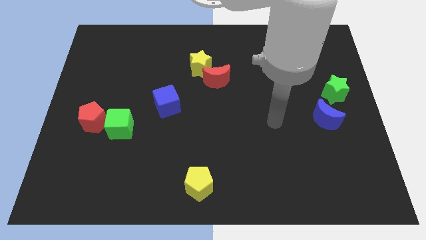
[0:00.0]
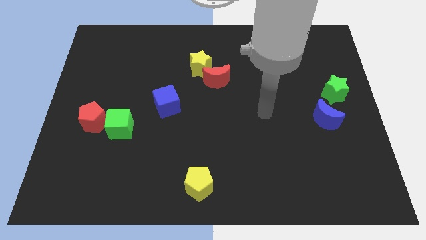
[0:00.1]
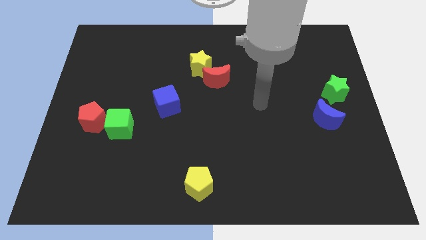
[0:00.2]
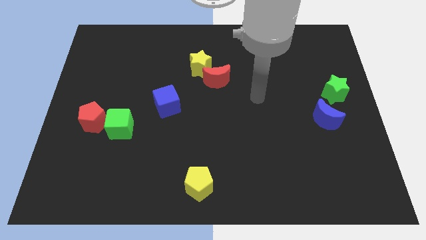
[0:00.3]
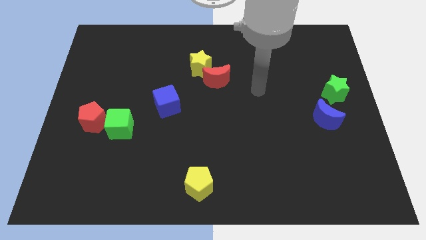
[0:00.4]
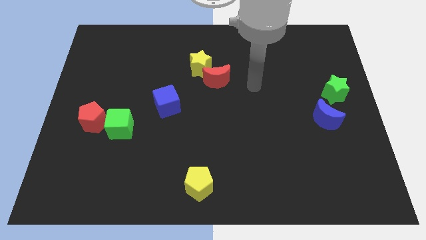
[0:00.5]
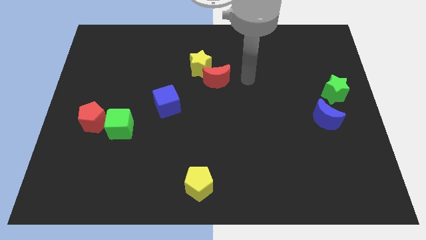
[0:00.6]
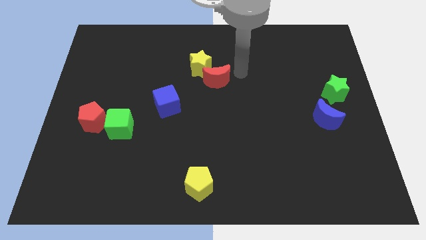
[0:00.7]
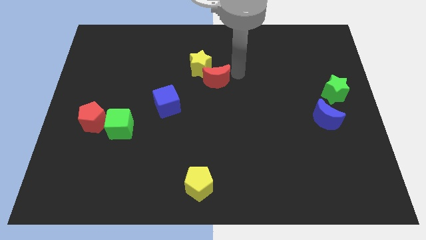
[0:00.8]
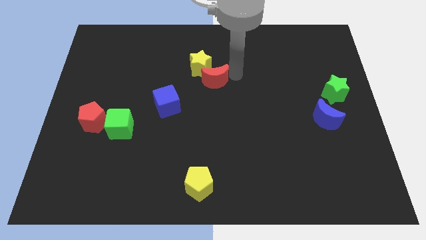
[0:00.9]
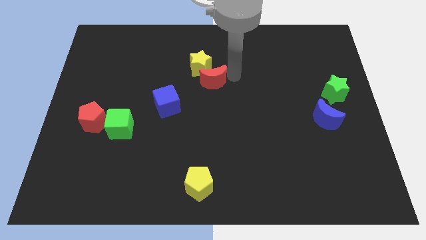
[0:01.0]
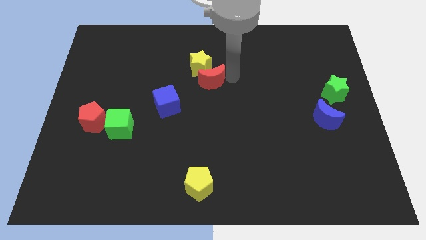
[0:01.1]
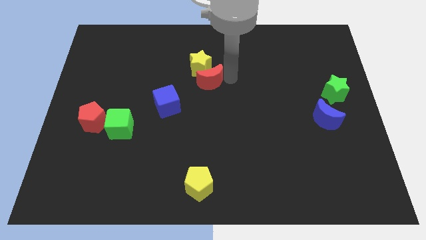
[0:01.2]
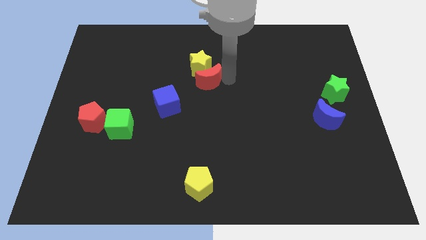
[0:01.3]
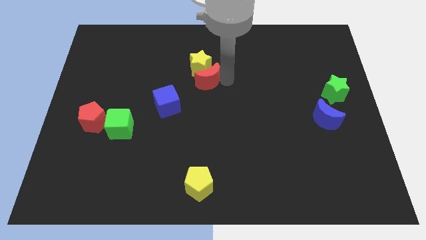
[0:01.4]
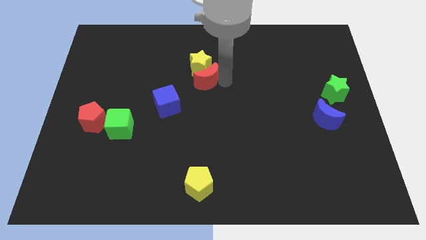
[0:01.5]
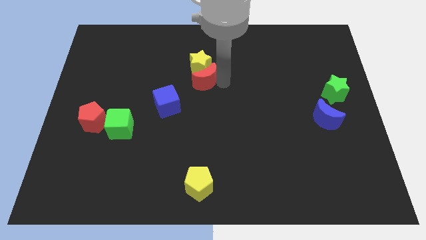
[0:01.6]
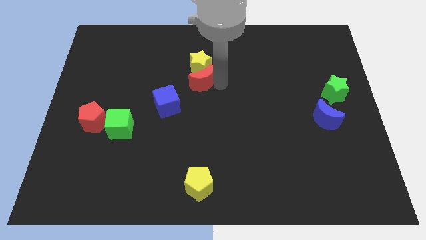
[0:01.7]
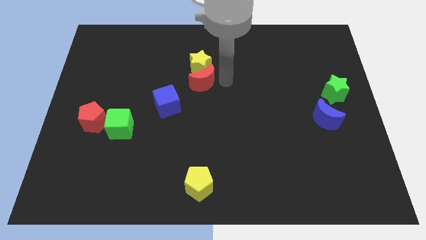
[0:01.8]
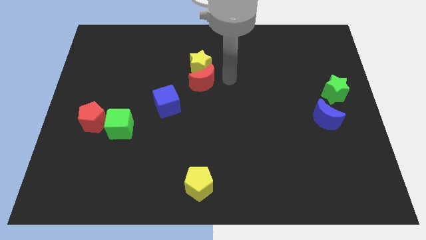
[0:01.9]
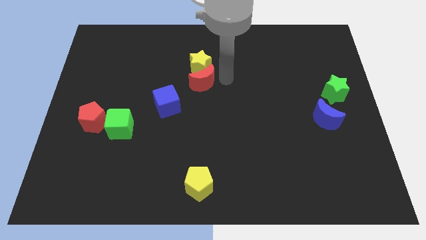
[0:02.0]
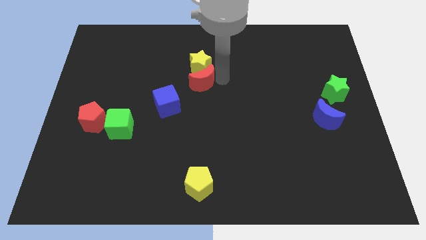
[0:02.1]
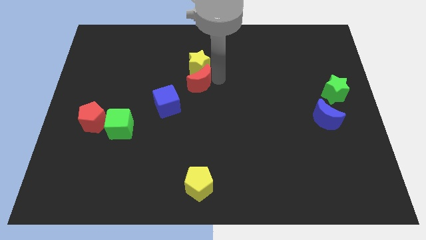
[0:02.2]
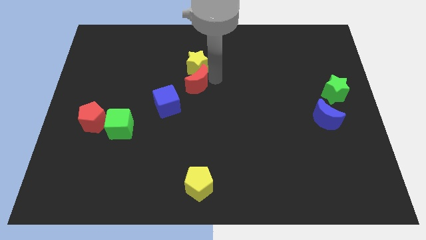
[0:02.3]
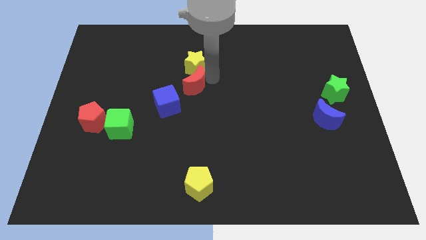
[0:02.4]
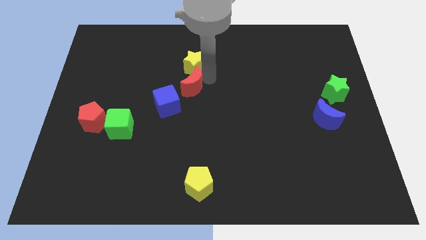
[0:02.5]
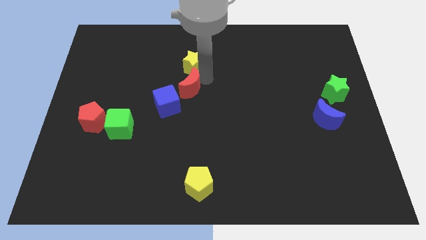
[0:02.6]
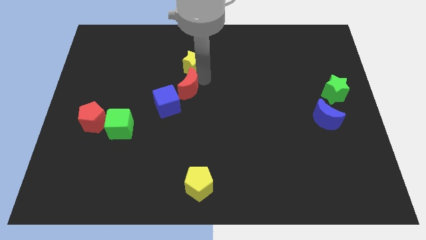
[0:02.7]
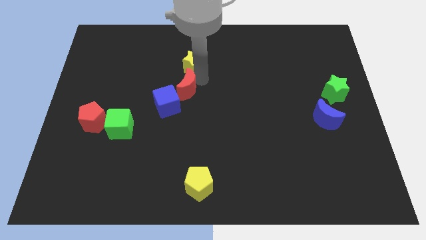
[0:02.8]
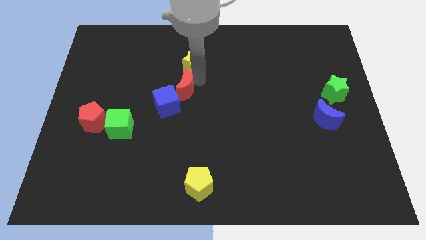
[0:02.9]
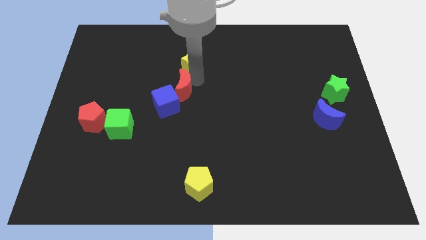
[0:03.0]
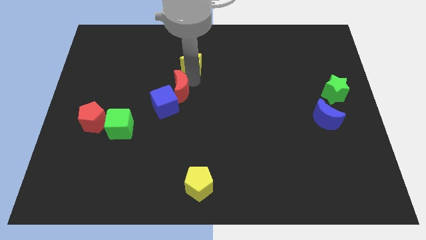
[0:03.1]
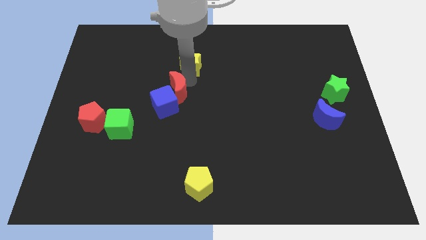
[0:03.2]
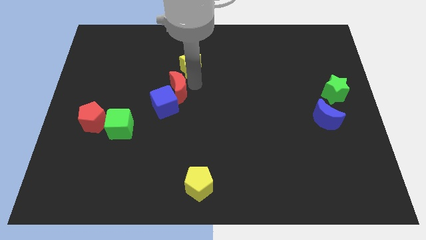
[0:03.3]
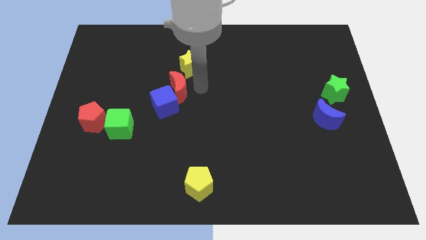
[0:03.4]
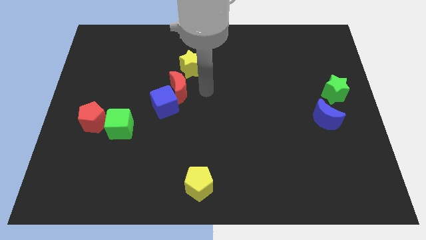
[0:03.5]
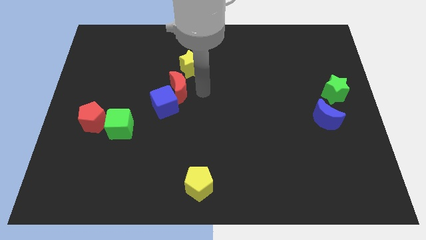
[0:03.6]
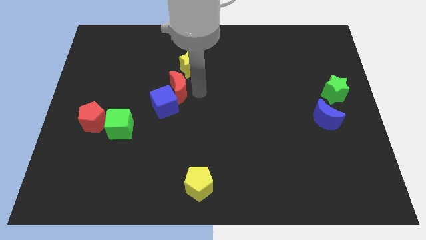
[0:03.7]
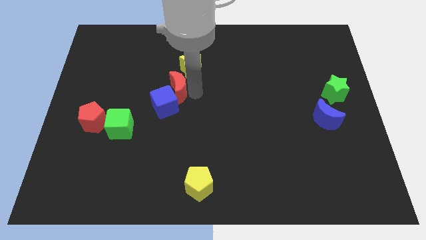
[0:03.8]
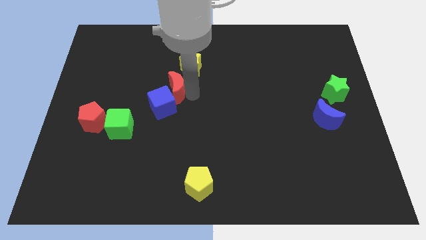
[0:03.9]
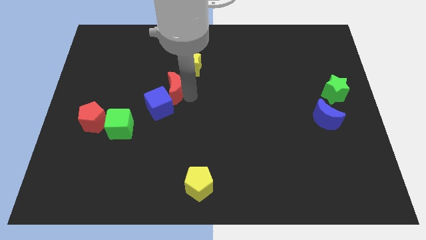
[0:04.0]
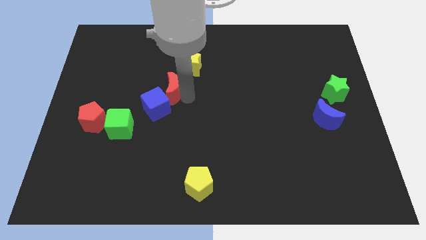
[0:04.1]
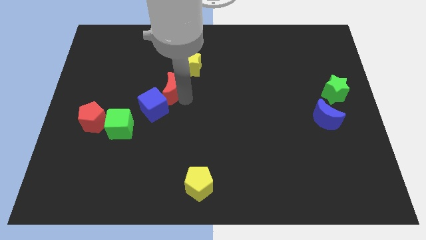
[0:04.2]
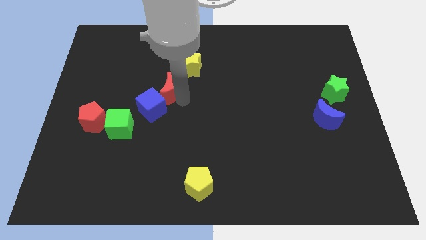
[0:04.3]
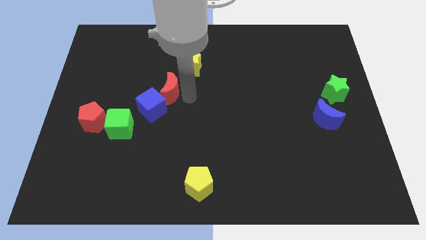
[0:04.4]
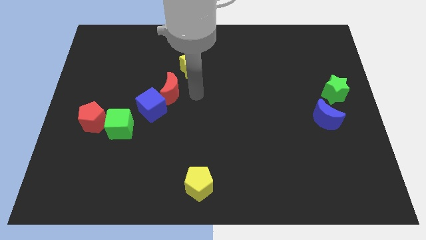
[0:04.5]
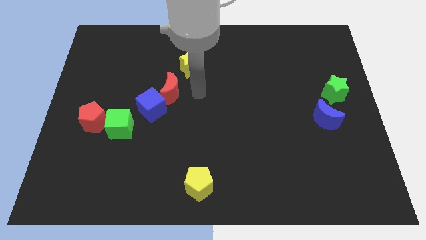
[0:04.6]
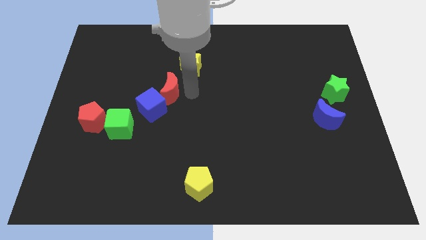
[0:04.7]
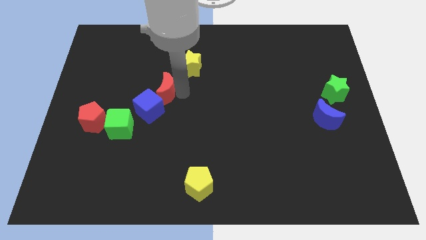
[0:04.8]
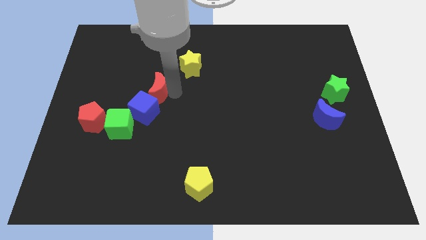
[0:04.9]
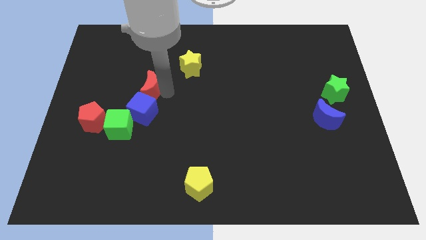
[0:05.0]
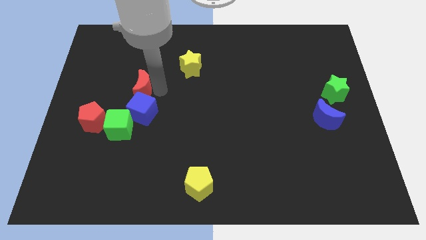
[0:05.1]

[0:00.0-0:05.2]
push the red moon to the top left of the blue cube

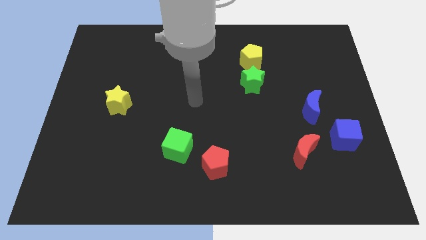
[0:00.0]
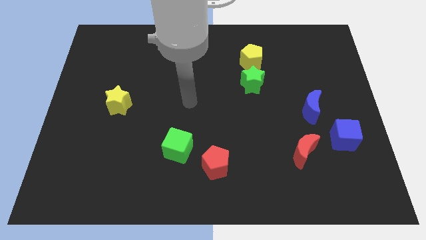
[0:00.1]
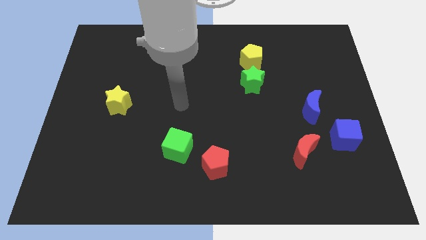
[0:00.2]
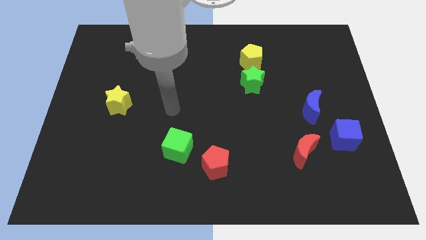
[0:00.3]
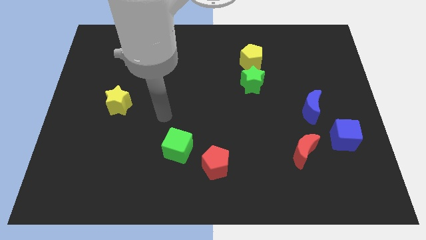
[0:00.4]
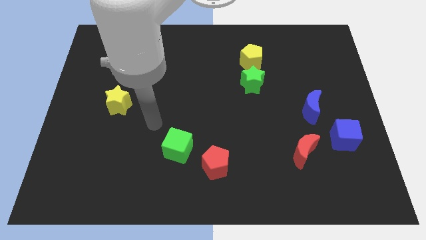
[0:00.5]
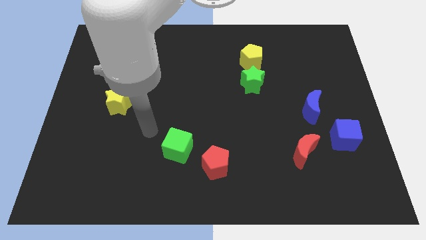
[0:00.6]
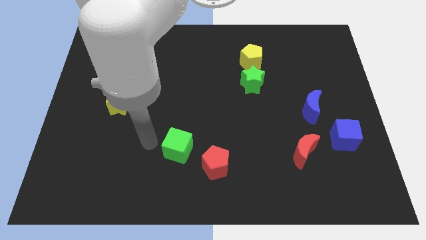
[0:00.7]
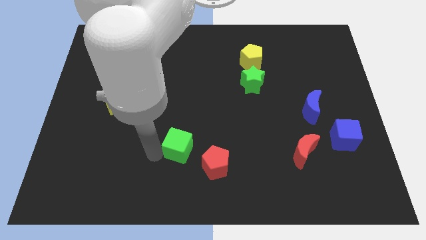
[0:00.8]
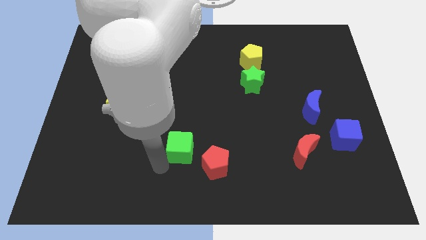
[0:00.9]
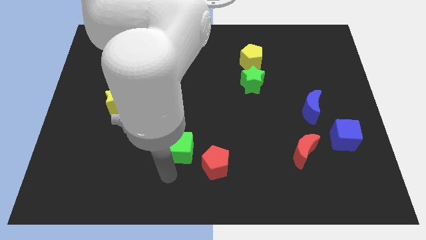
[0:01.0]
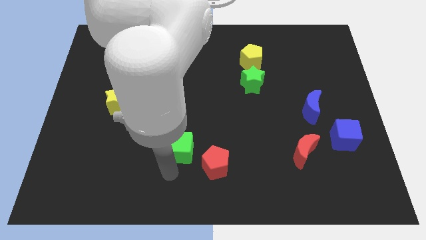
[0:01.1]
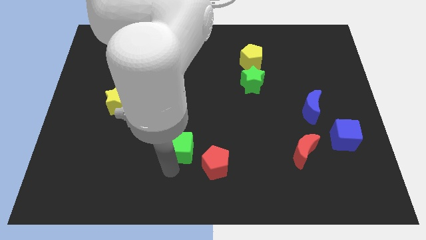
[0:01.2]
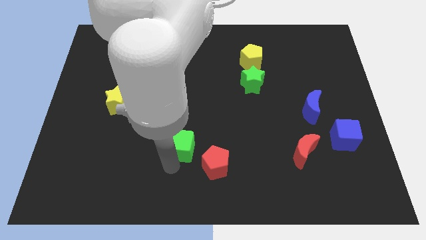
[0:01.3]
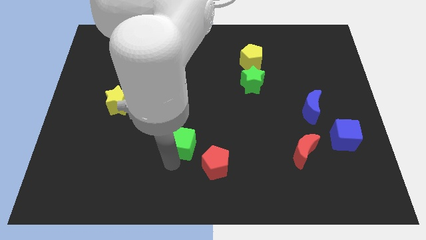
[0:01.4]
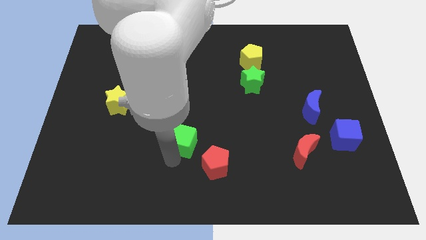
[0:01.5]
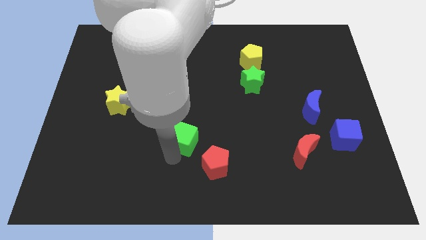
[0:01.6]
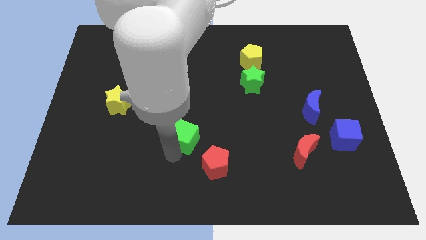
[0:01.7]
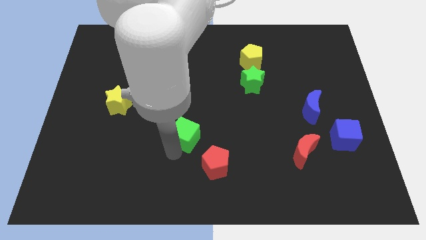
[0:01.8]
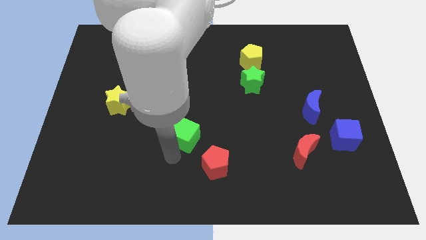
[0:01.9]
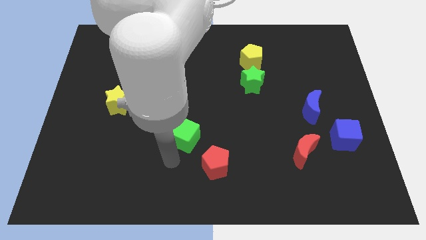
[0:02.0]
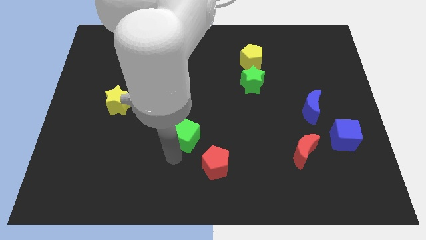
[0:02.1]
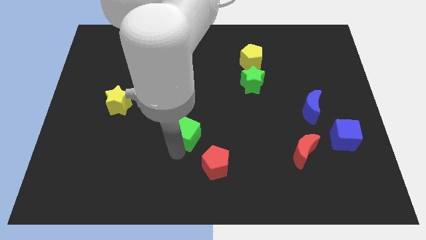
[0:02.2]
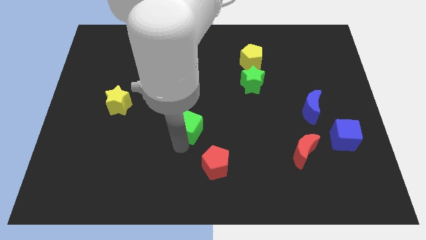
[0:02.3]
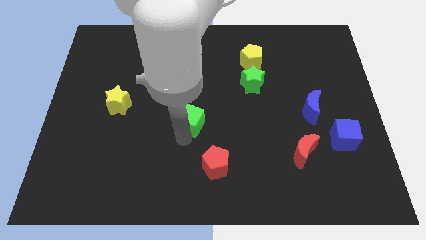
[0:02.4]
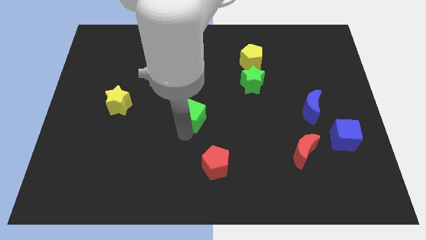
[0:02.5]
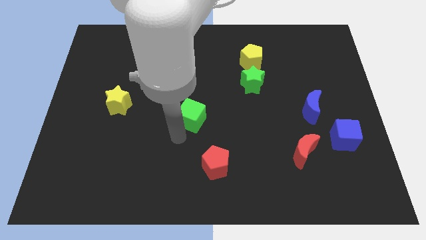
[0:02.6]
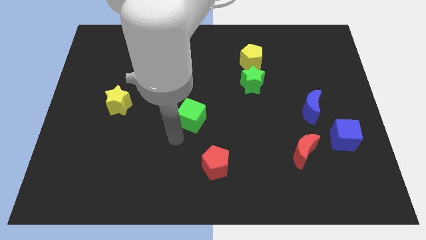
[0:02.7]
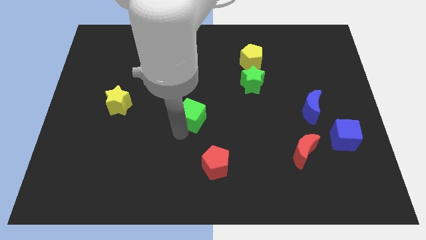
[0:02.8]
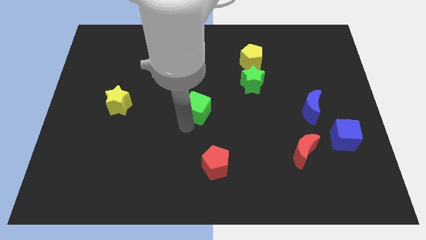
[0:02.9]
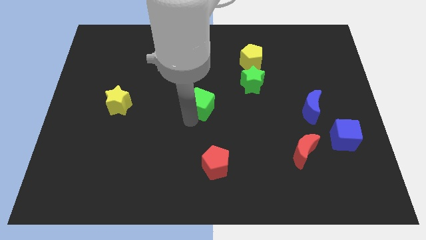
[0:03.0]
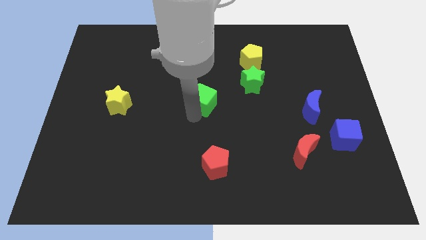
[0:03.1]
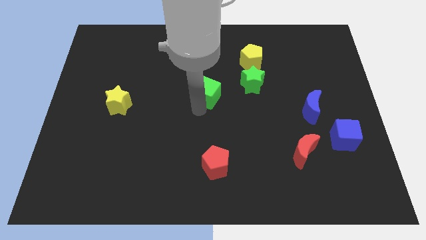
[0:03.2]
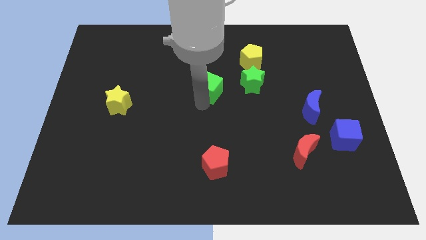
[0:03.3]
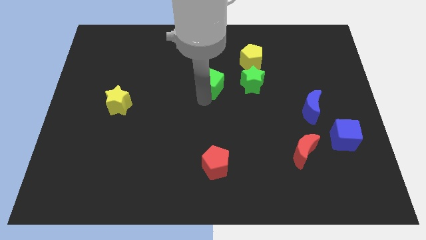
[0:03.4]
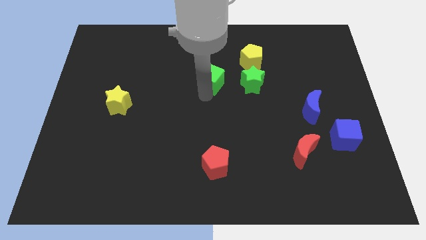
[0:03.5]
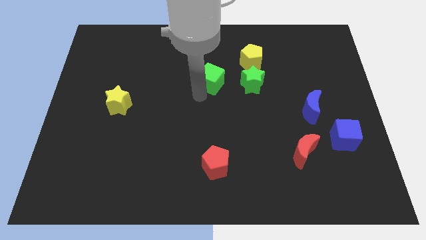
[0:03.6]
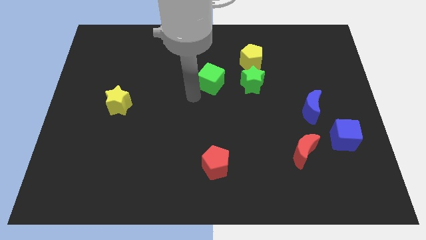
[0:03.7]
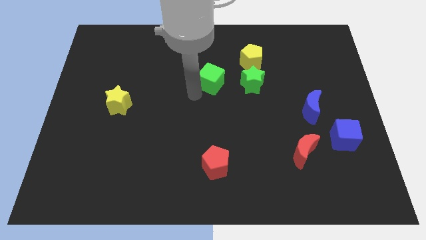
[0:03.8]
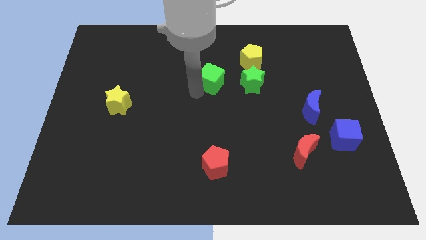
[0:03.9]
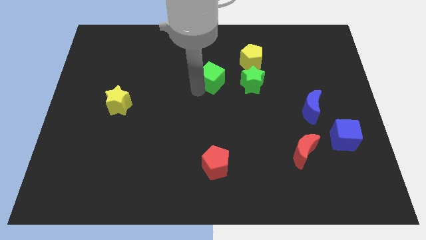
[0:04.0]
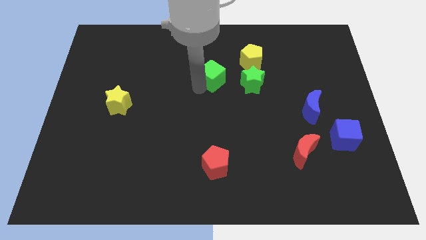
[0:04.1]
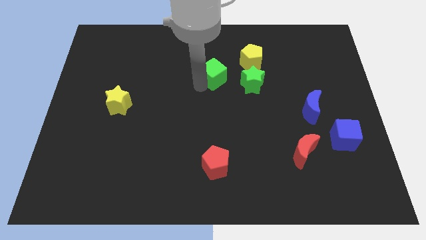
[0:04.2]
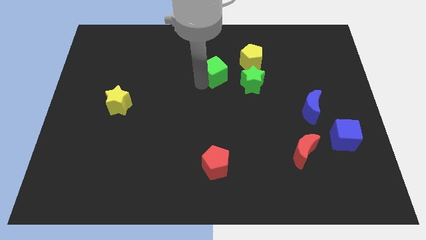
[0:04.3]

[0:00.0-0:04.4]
push the green cube diagonally up and to the left of the green star
